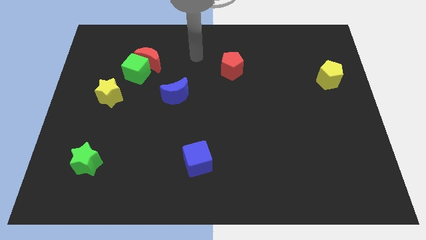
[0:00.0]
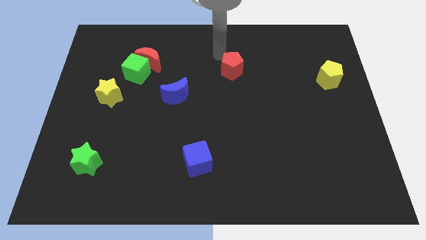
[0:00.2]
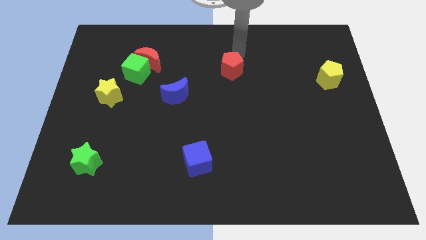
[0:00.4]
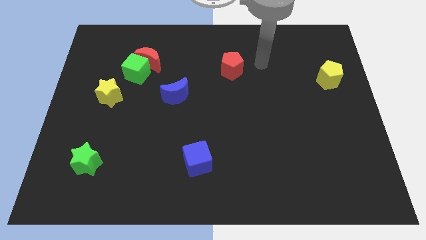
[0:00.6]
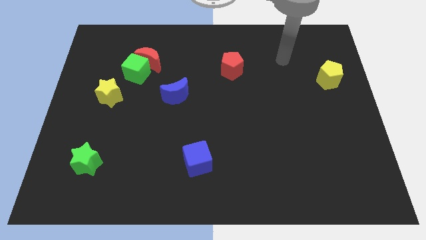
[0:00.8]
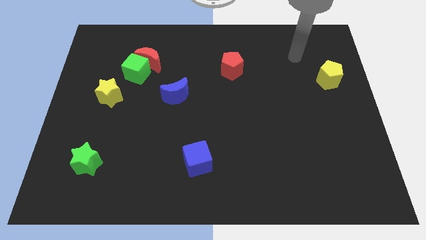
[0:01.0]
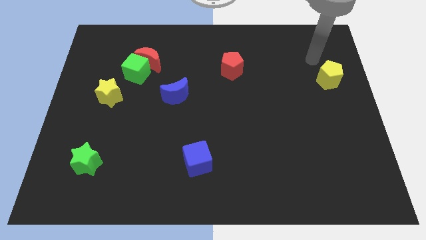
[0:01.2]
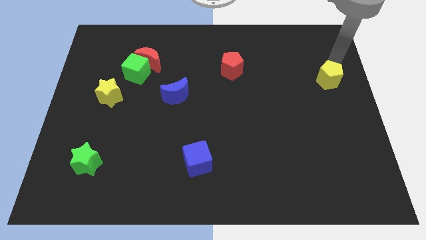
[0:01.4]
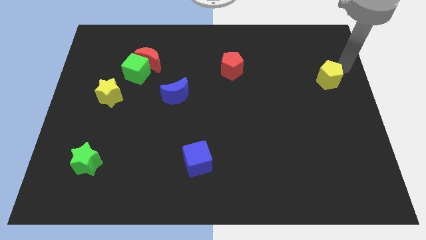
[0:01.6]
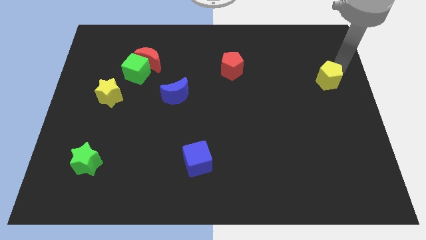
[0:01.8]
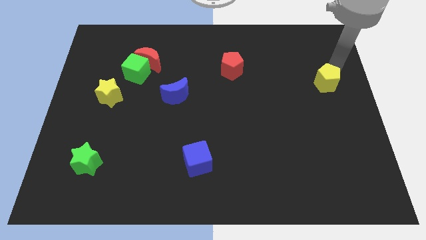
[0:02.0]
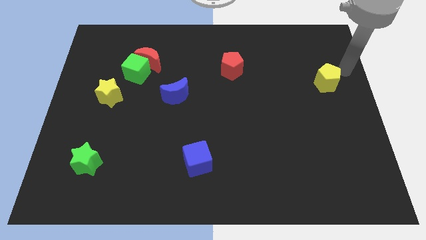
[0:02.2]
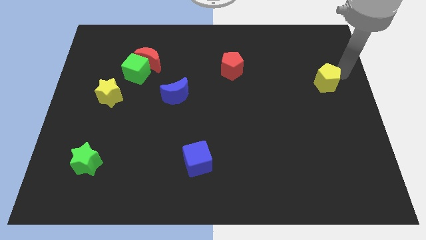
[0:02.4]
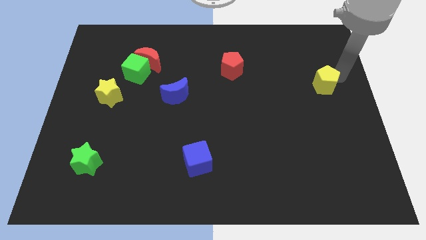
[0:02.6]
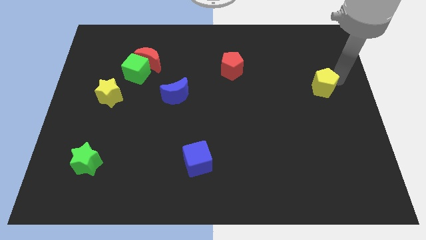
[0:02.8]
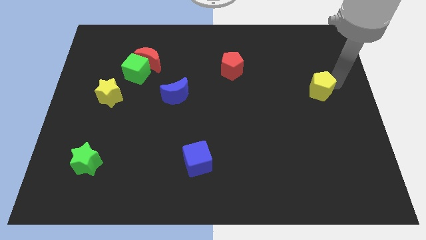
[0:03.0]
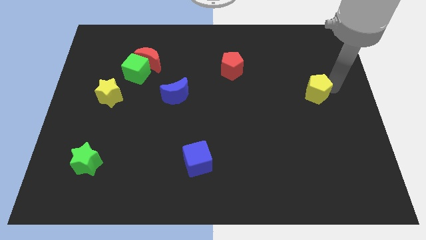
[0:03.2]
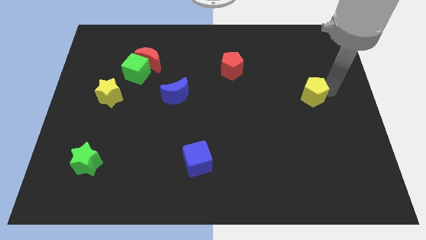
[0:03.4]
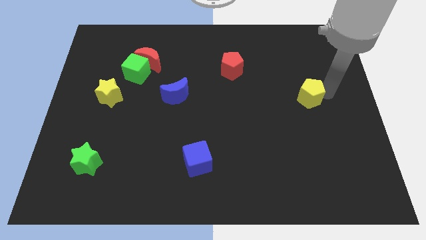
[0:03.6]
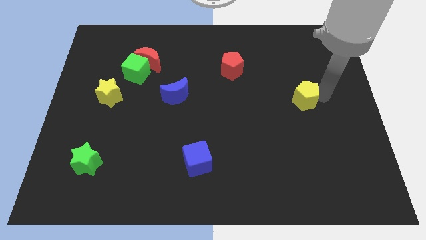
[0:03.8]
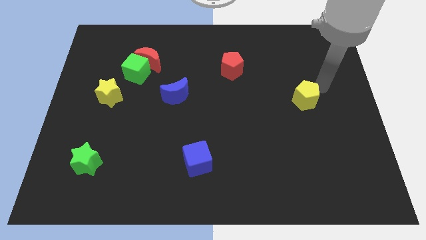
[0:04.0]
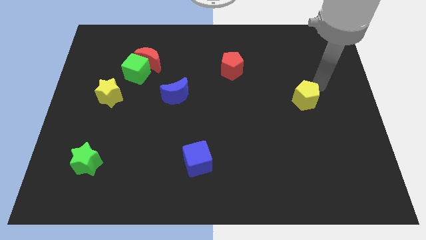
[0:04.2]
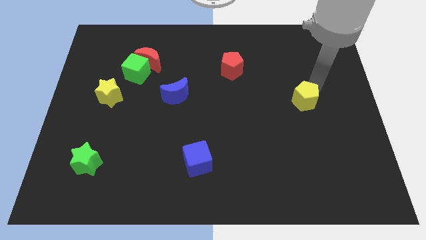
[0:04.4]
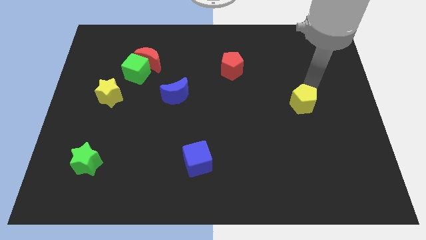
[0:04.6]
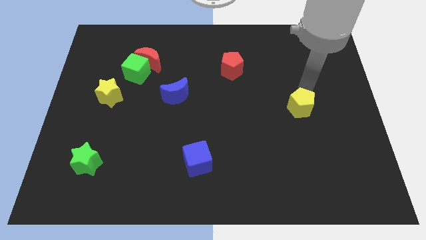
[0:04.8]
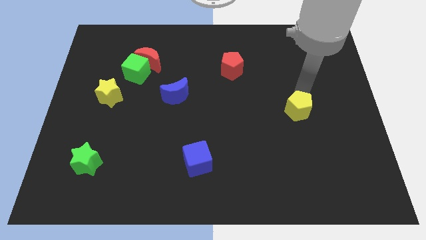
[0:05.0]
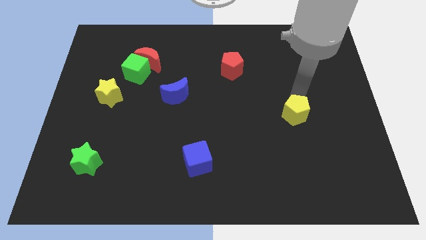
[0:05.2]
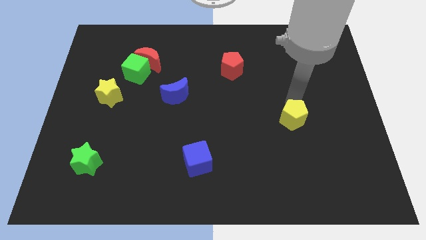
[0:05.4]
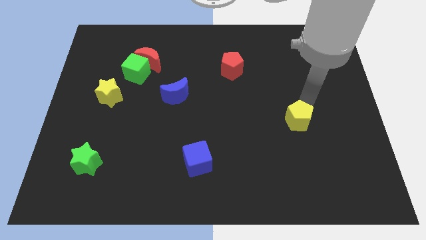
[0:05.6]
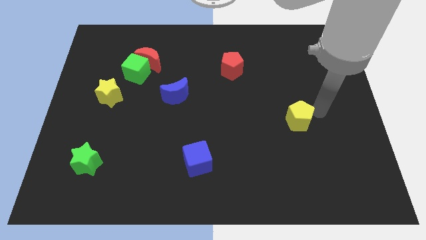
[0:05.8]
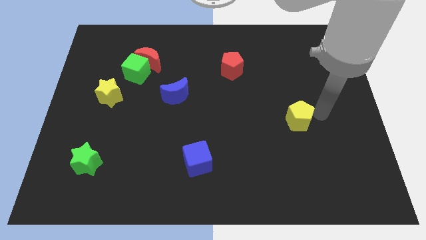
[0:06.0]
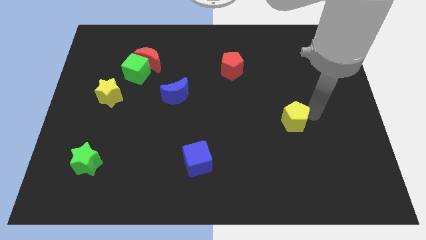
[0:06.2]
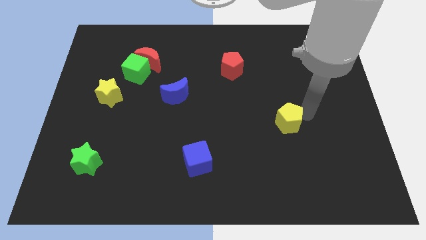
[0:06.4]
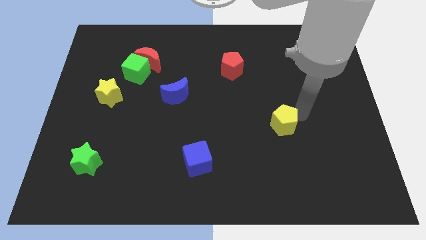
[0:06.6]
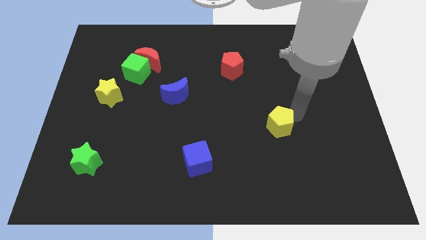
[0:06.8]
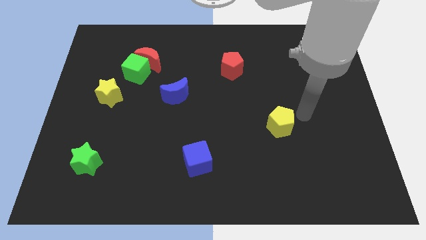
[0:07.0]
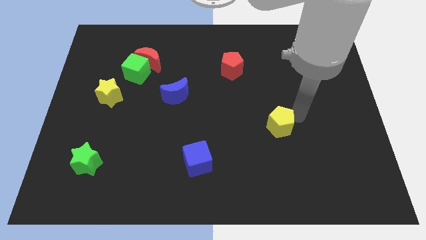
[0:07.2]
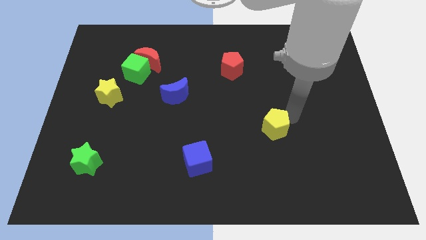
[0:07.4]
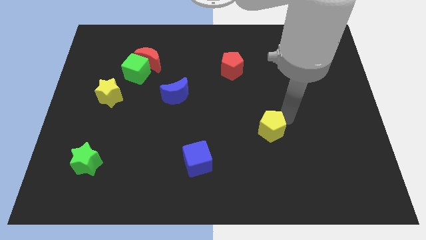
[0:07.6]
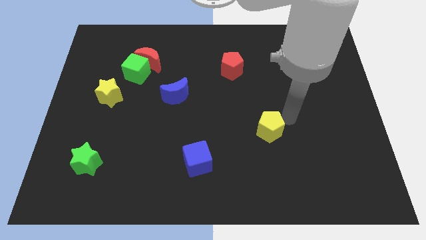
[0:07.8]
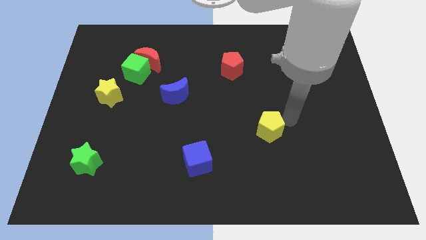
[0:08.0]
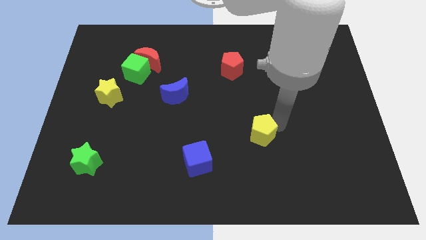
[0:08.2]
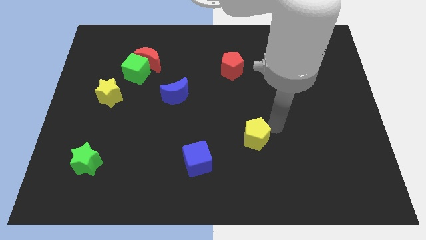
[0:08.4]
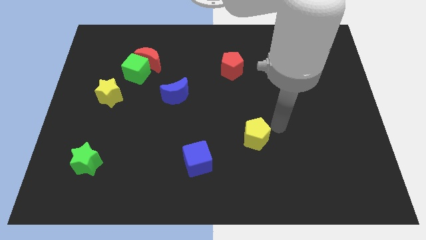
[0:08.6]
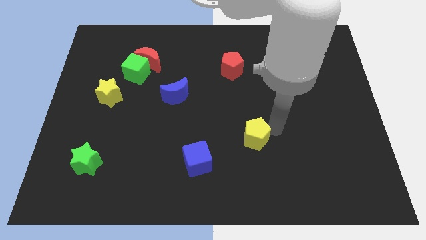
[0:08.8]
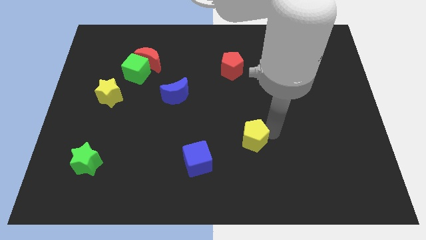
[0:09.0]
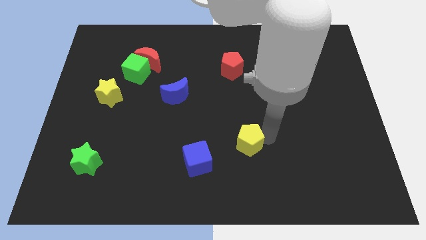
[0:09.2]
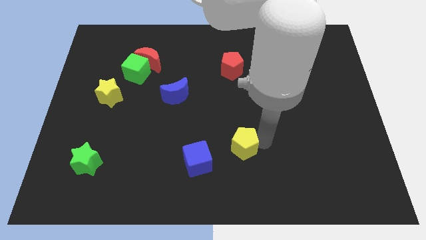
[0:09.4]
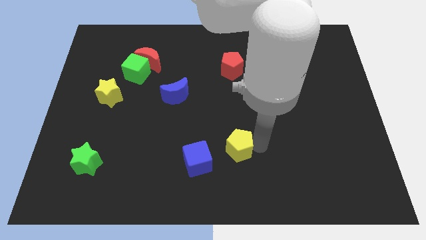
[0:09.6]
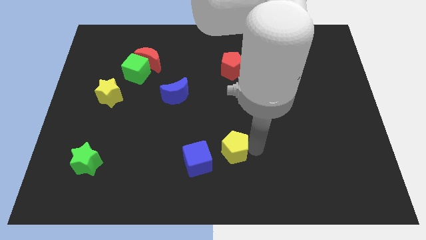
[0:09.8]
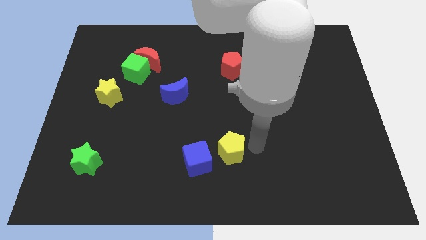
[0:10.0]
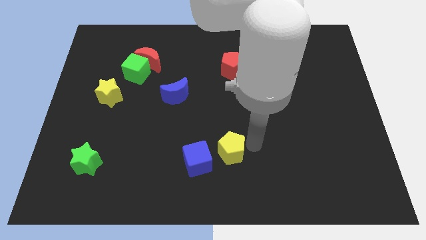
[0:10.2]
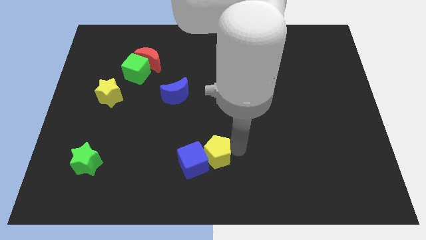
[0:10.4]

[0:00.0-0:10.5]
push the yellow pentagon towards the blue cube

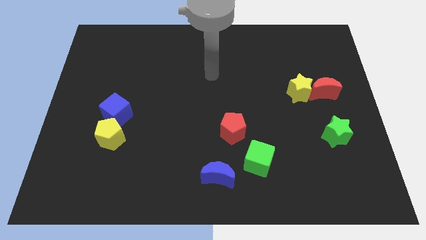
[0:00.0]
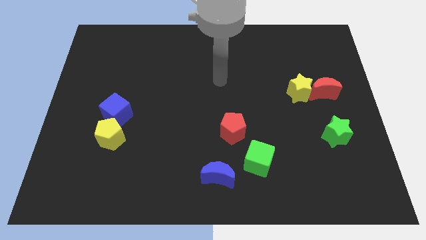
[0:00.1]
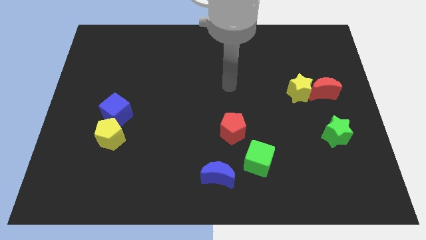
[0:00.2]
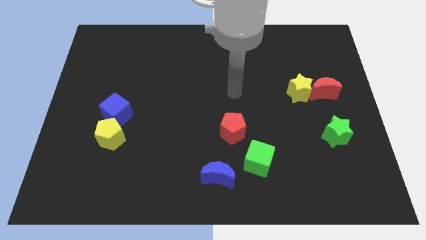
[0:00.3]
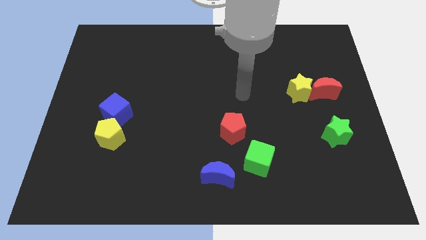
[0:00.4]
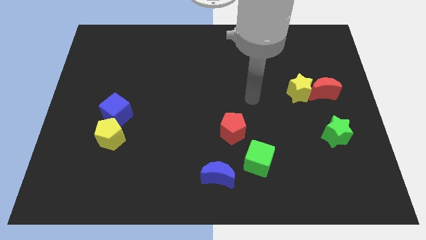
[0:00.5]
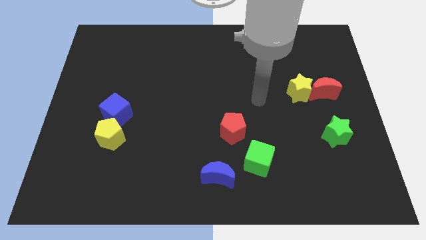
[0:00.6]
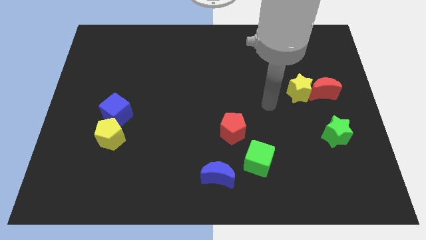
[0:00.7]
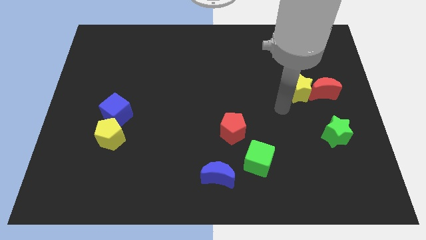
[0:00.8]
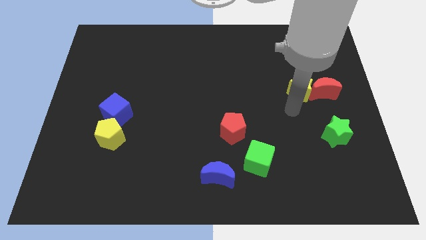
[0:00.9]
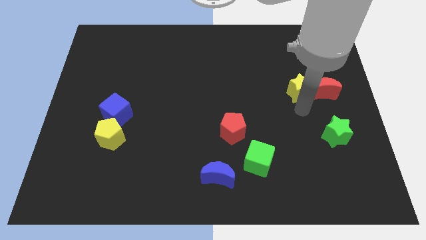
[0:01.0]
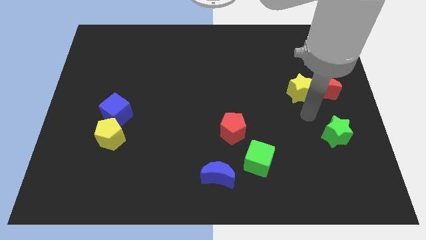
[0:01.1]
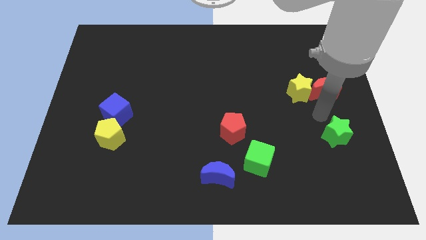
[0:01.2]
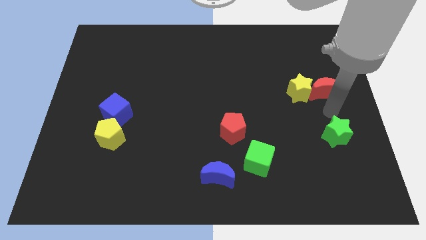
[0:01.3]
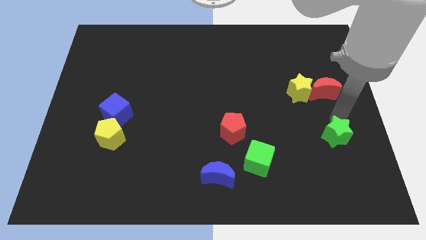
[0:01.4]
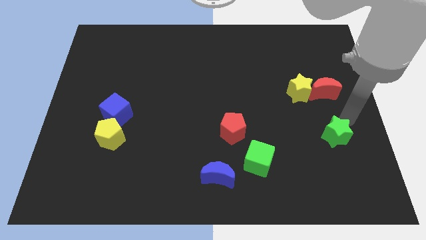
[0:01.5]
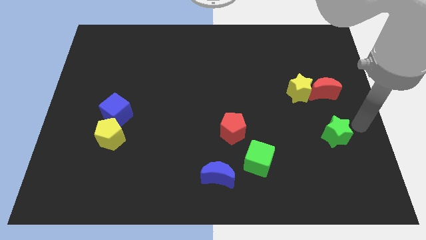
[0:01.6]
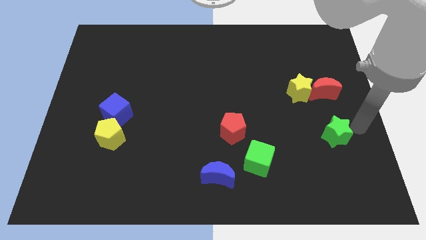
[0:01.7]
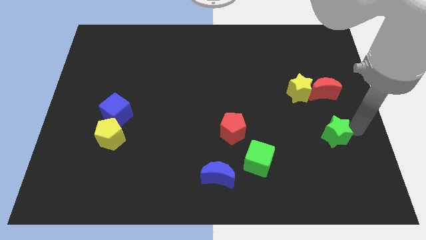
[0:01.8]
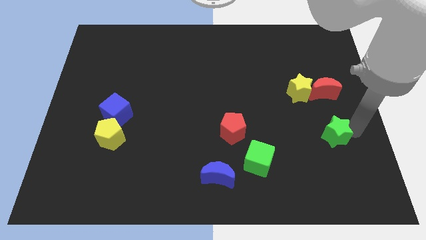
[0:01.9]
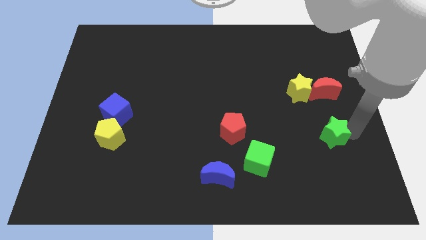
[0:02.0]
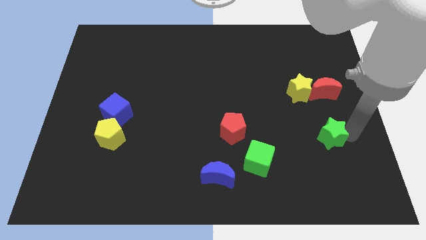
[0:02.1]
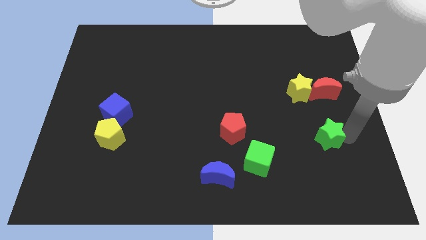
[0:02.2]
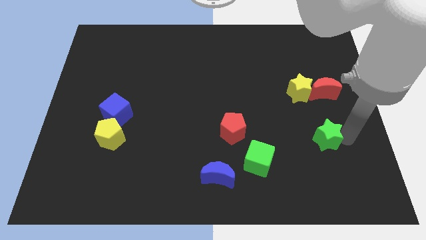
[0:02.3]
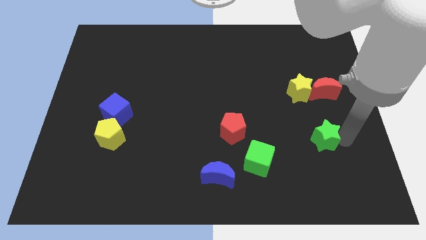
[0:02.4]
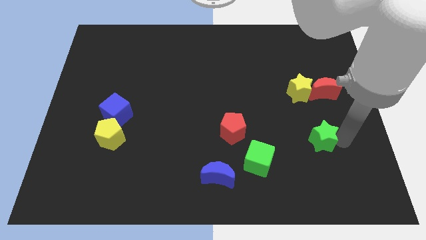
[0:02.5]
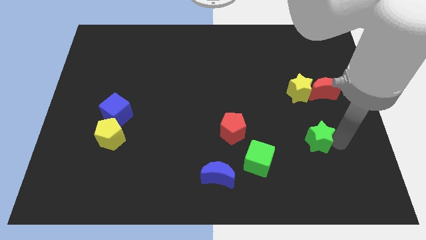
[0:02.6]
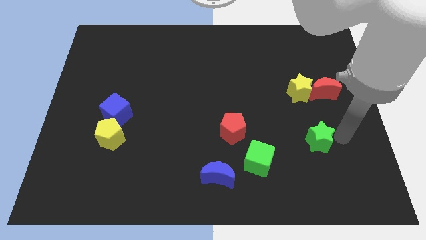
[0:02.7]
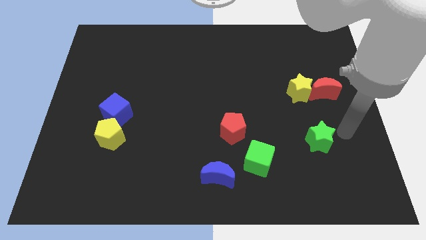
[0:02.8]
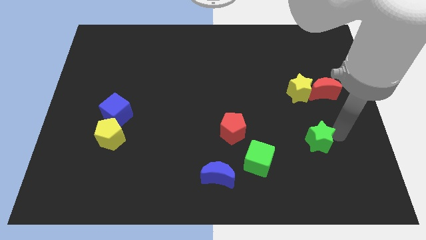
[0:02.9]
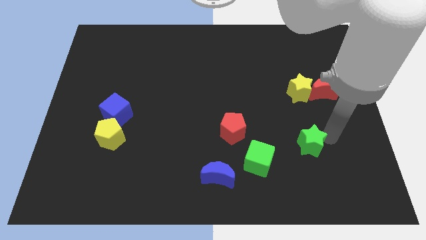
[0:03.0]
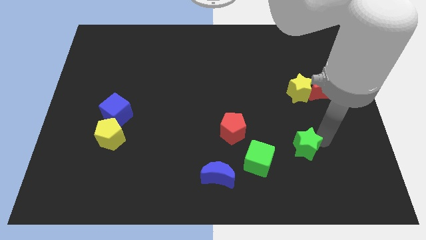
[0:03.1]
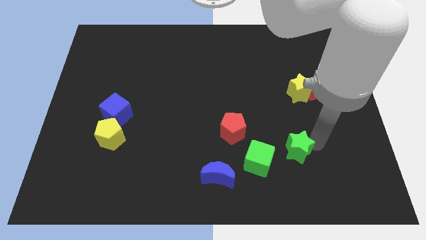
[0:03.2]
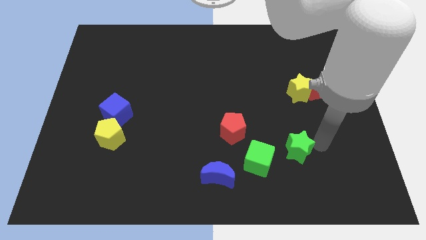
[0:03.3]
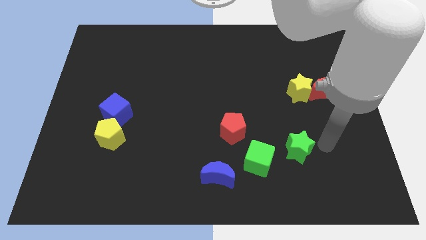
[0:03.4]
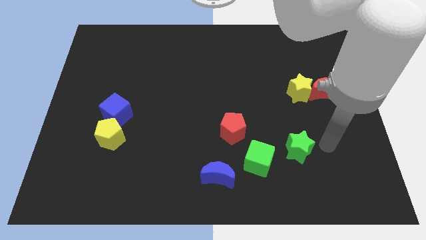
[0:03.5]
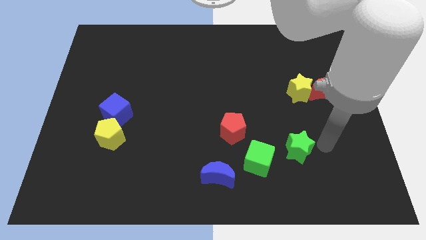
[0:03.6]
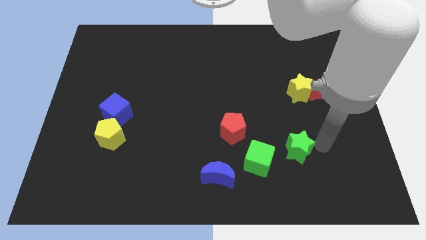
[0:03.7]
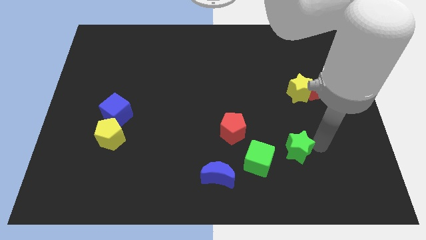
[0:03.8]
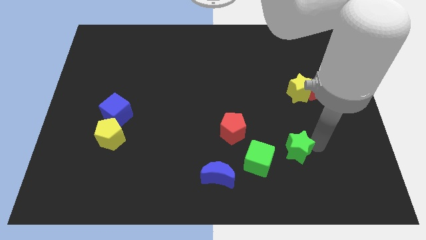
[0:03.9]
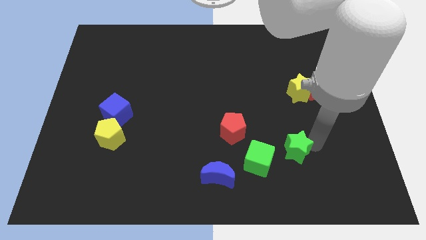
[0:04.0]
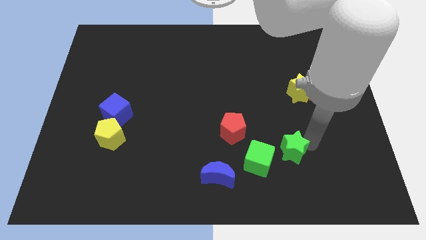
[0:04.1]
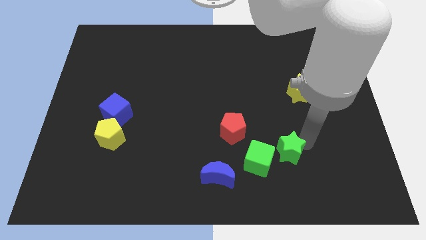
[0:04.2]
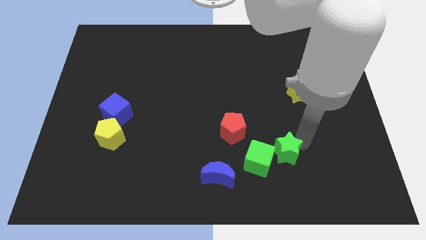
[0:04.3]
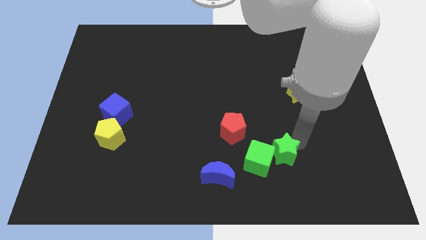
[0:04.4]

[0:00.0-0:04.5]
push the green star close to the green cube
